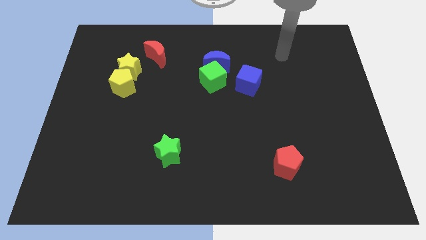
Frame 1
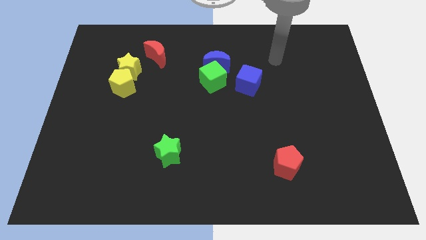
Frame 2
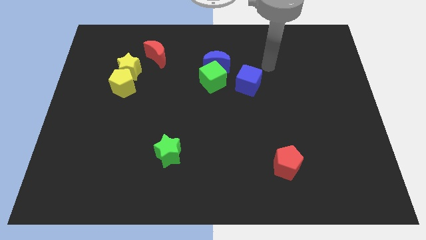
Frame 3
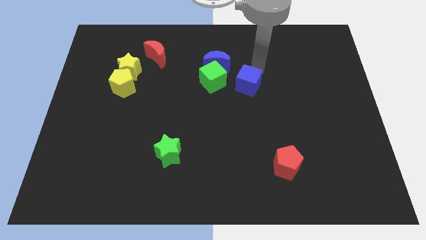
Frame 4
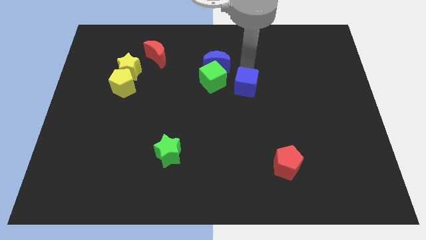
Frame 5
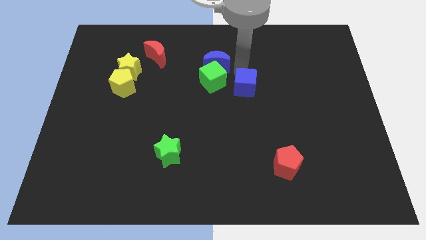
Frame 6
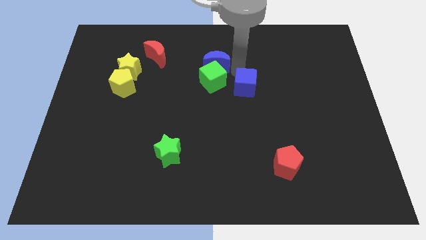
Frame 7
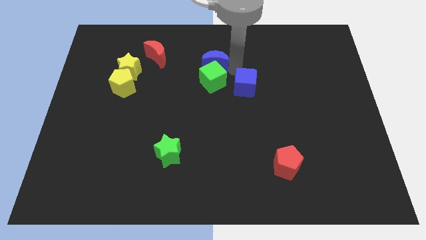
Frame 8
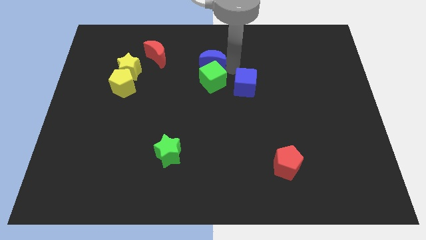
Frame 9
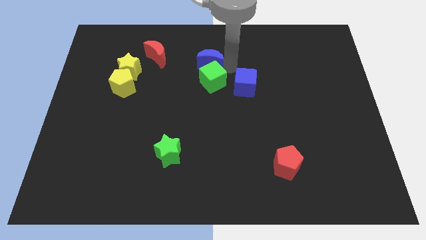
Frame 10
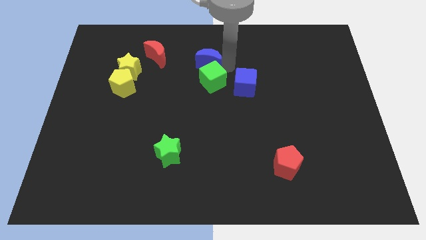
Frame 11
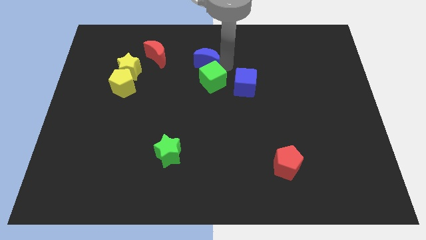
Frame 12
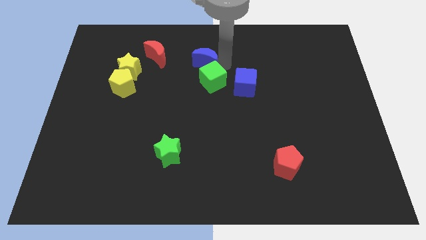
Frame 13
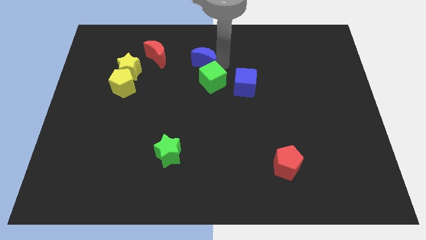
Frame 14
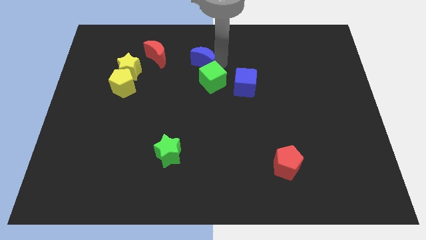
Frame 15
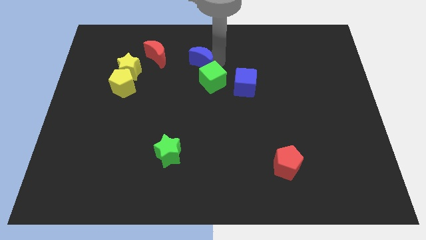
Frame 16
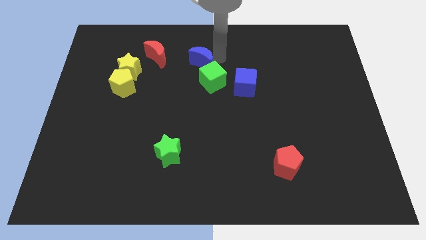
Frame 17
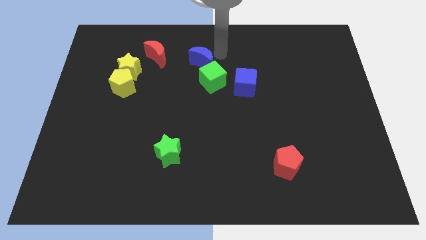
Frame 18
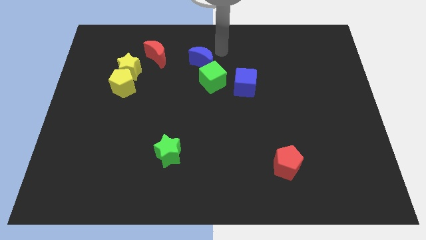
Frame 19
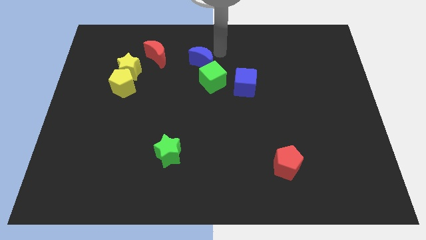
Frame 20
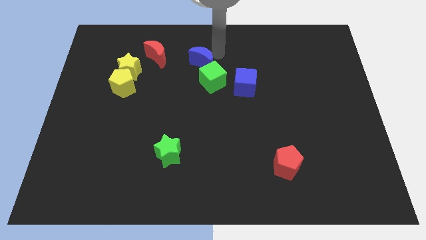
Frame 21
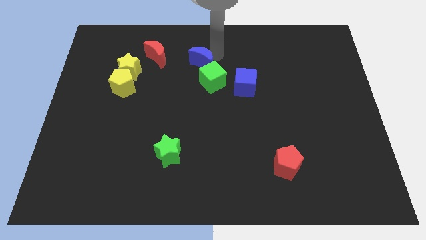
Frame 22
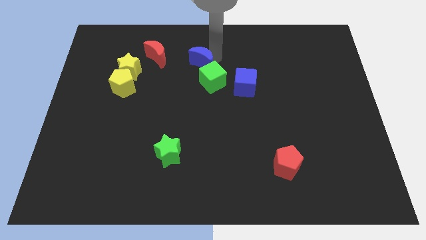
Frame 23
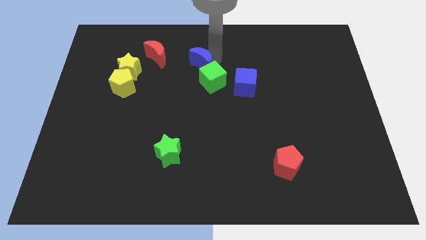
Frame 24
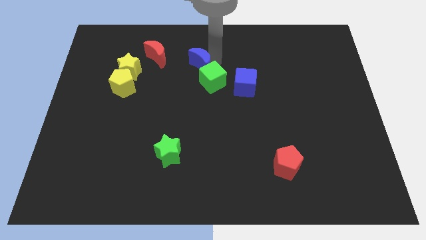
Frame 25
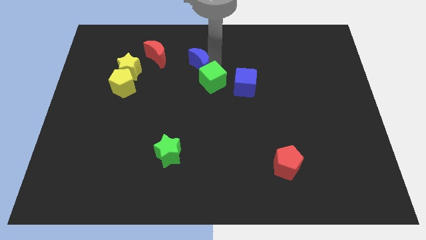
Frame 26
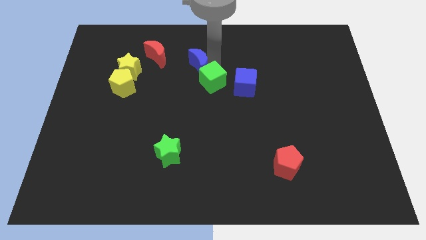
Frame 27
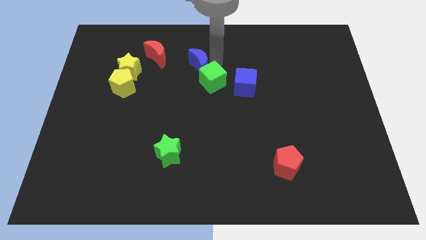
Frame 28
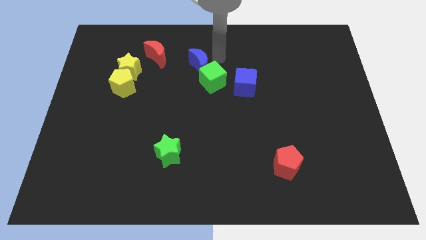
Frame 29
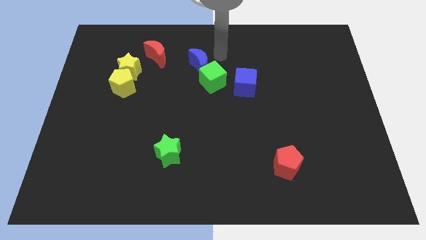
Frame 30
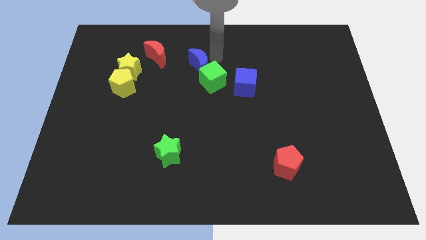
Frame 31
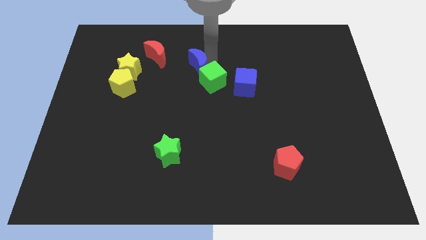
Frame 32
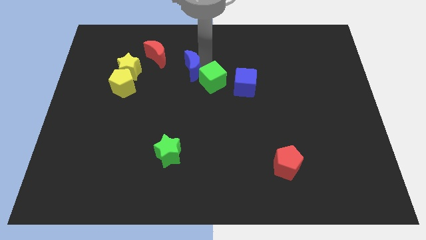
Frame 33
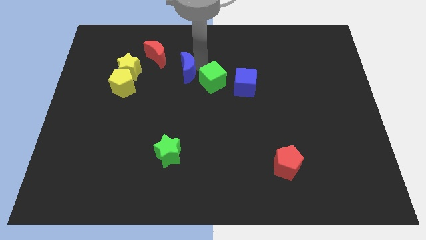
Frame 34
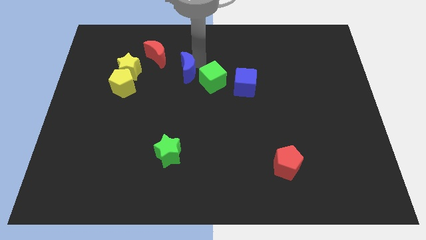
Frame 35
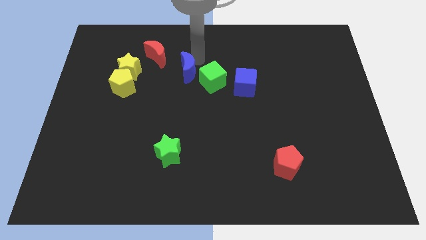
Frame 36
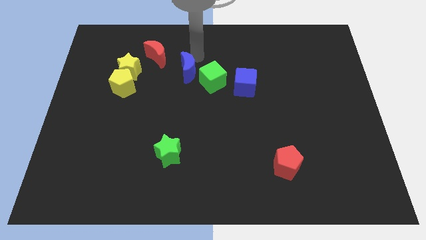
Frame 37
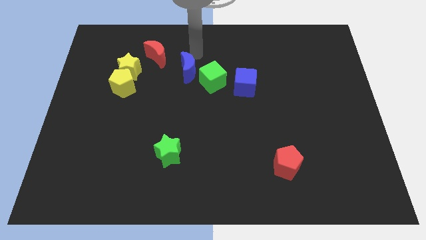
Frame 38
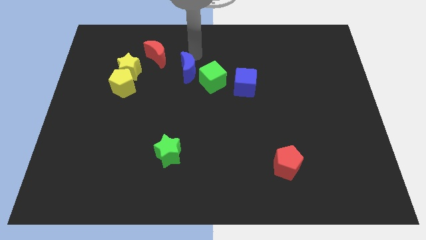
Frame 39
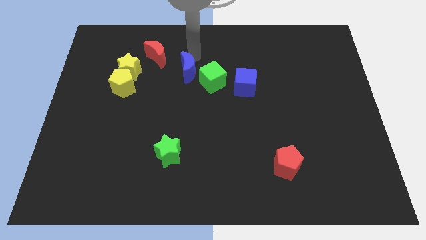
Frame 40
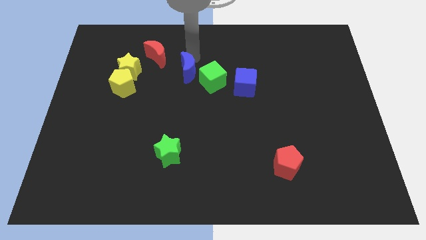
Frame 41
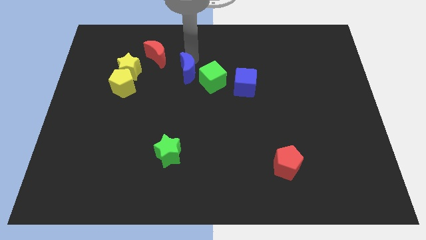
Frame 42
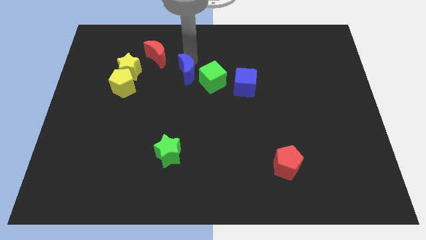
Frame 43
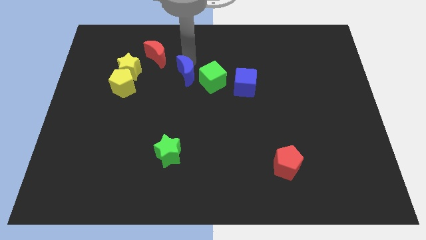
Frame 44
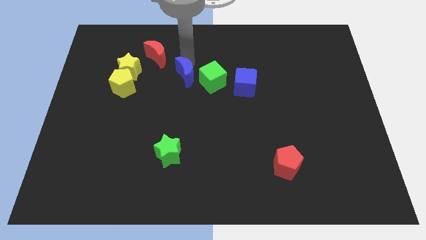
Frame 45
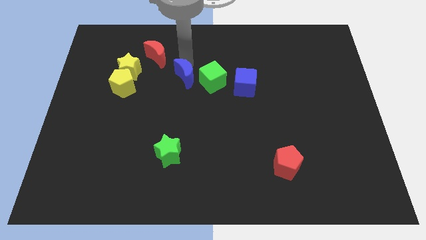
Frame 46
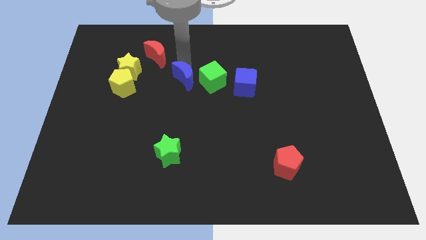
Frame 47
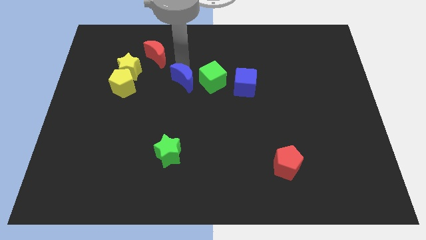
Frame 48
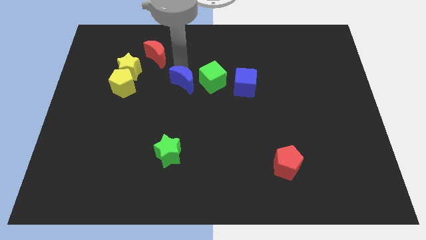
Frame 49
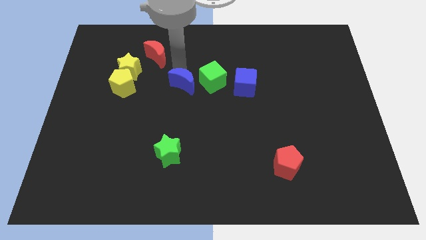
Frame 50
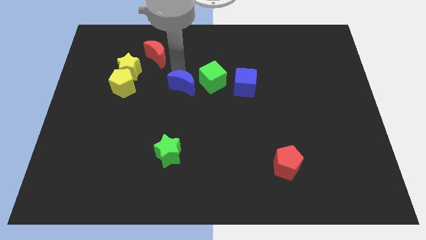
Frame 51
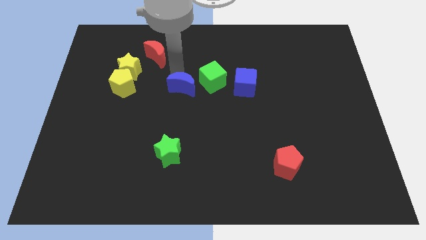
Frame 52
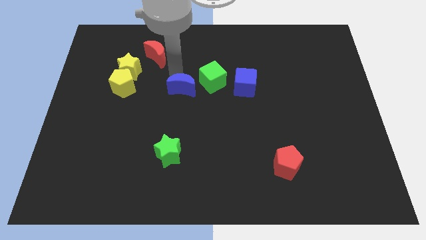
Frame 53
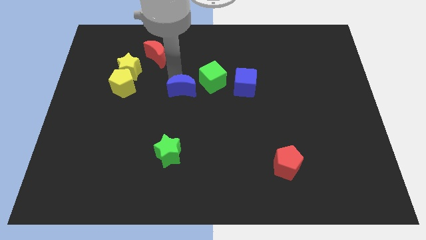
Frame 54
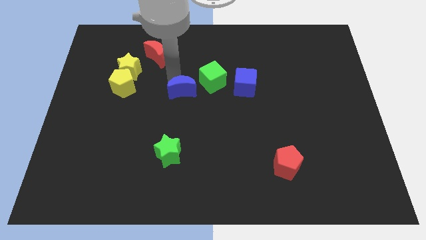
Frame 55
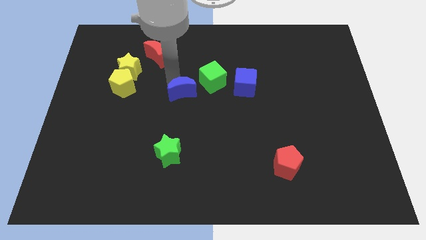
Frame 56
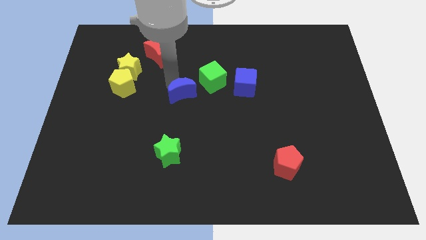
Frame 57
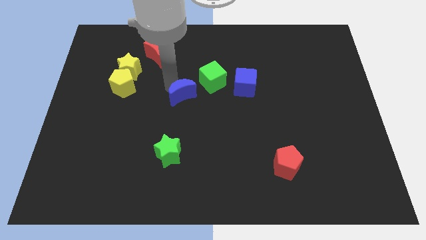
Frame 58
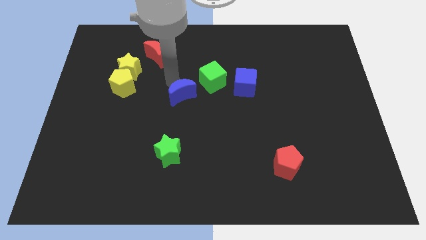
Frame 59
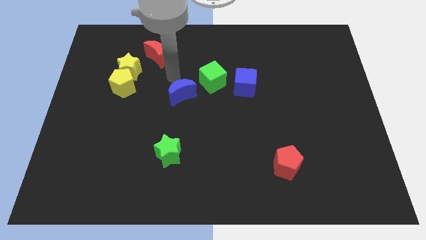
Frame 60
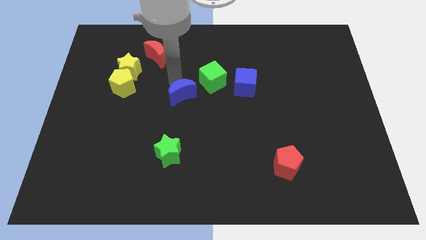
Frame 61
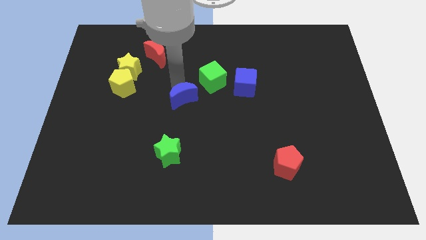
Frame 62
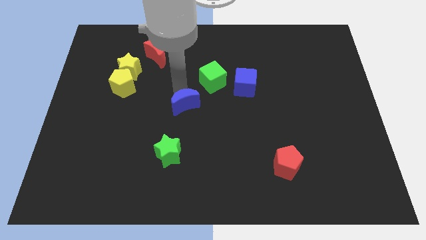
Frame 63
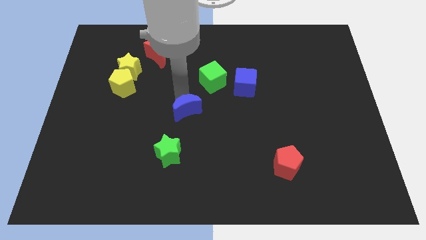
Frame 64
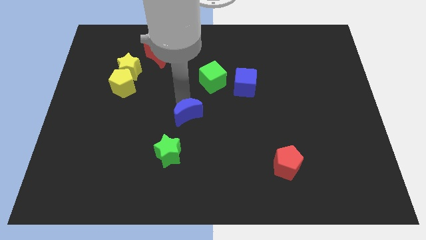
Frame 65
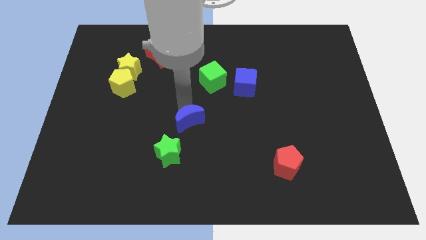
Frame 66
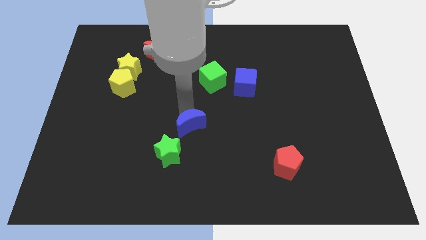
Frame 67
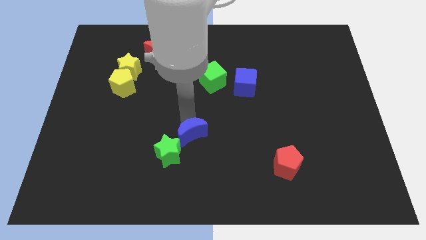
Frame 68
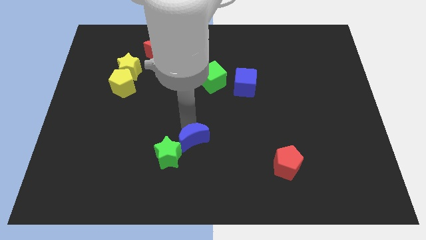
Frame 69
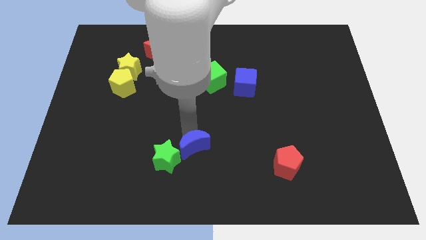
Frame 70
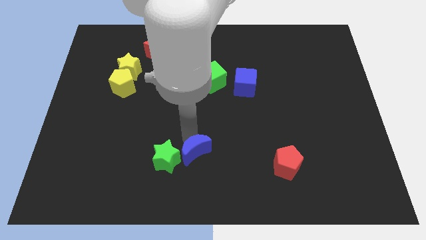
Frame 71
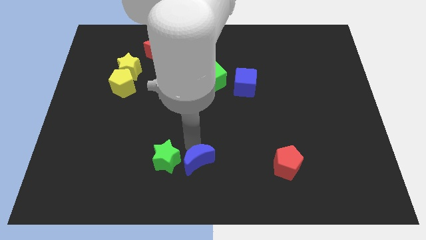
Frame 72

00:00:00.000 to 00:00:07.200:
push the blue moon to the bottom side
